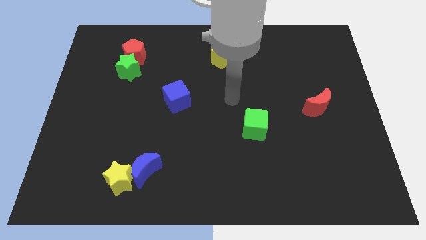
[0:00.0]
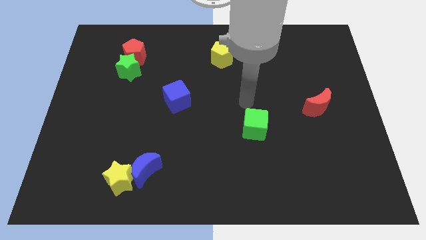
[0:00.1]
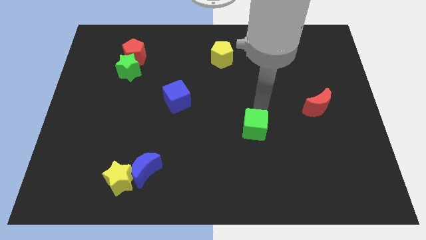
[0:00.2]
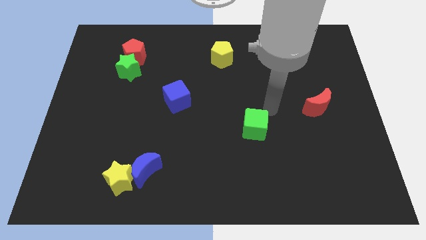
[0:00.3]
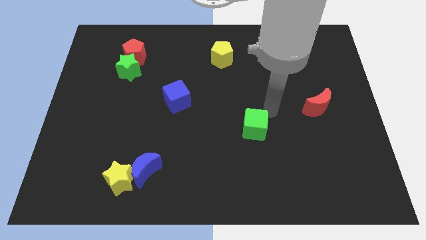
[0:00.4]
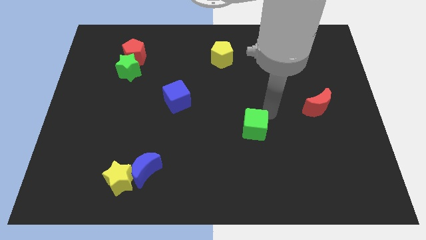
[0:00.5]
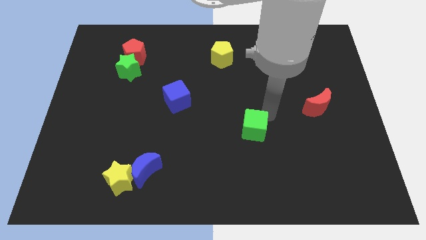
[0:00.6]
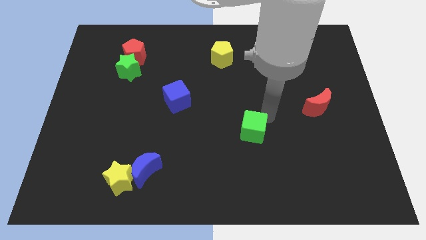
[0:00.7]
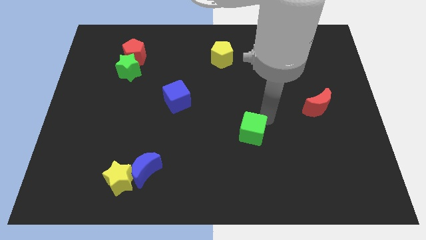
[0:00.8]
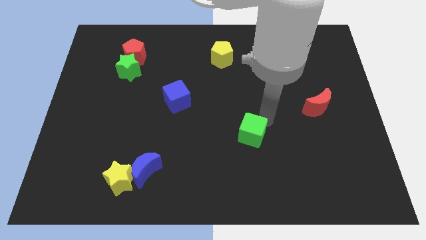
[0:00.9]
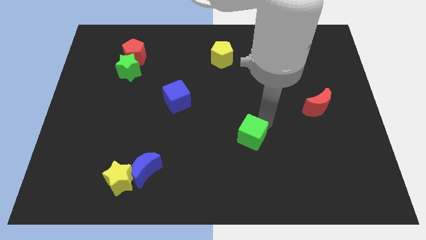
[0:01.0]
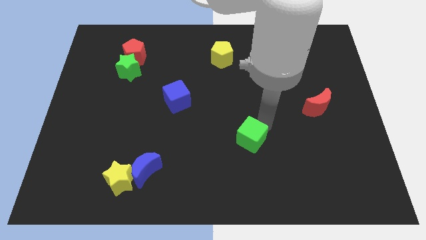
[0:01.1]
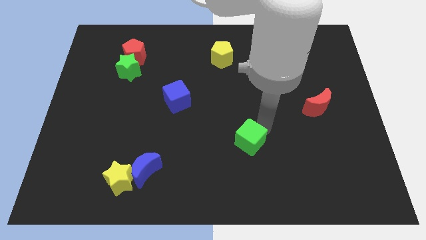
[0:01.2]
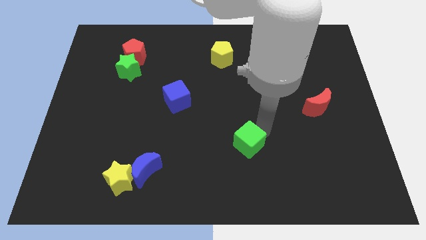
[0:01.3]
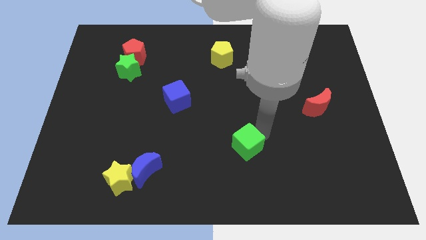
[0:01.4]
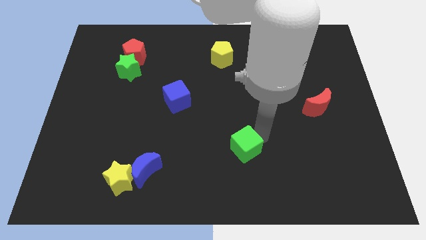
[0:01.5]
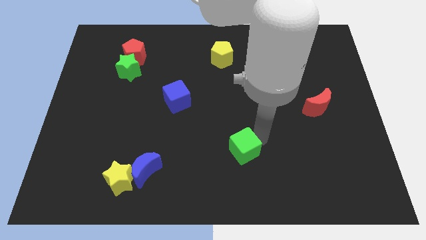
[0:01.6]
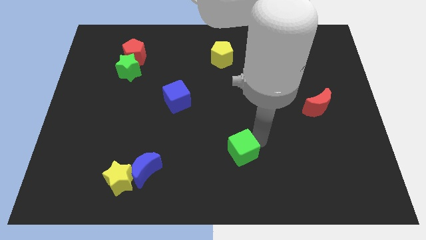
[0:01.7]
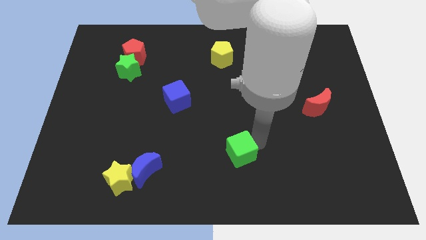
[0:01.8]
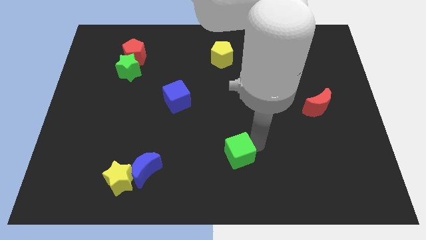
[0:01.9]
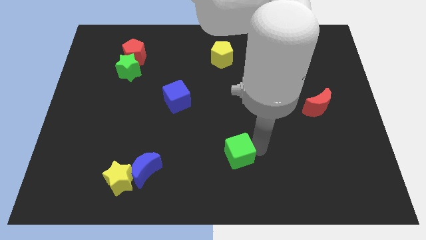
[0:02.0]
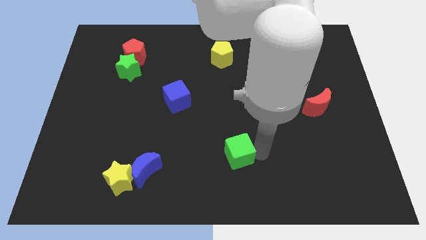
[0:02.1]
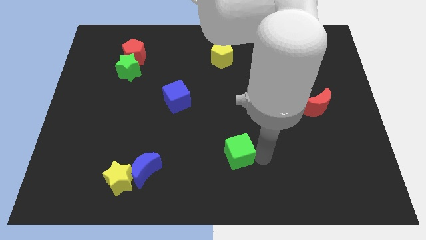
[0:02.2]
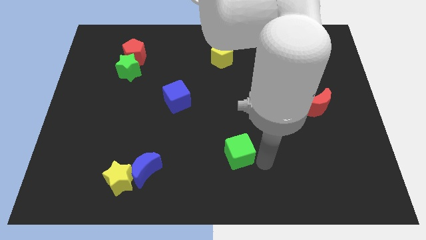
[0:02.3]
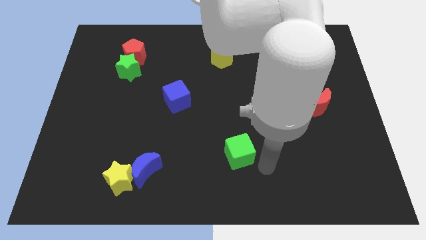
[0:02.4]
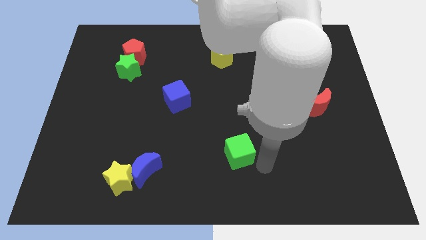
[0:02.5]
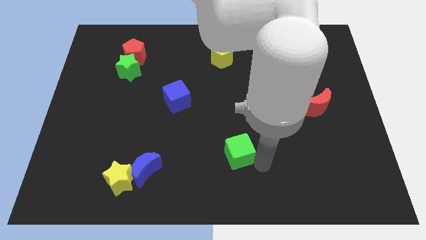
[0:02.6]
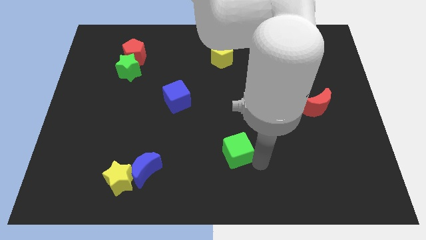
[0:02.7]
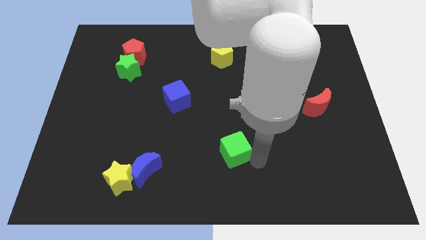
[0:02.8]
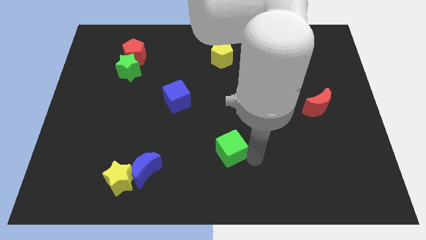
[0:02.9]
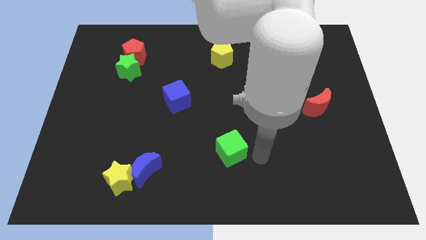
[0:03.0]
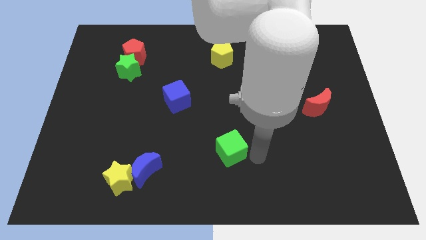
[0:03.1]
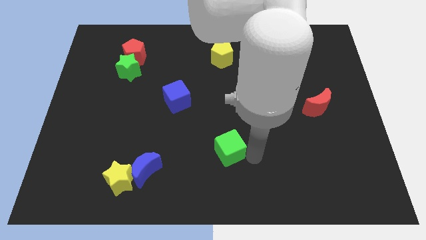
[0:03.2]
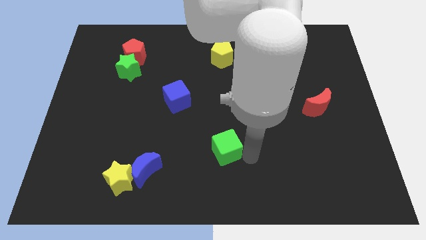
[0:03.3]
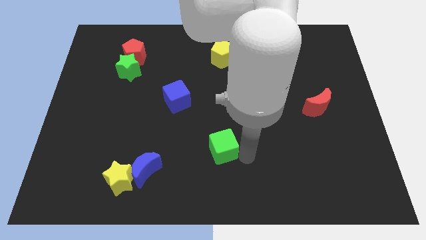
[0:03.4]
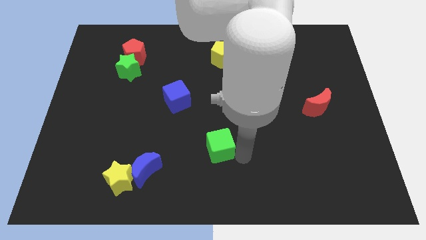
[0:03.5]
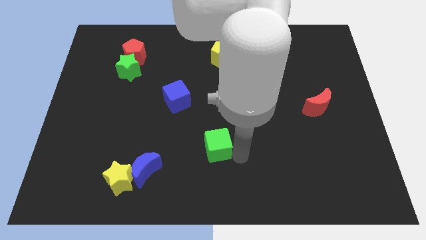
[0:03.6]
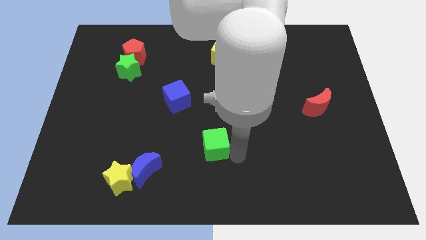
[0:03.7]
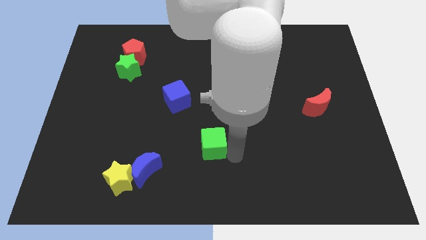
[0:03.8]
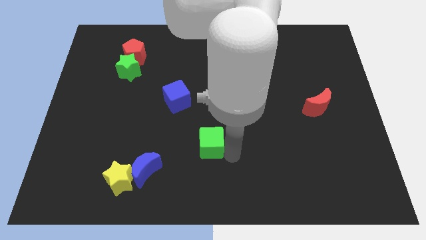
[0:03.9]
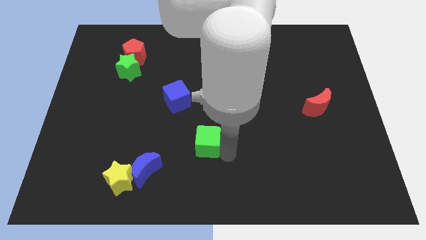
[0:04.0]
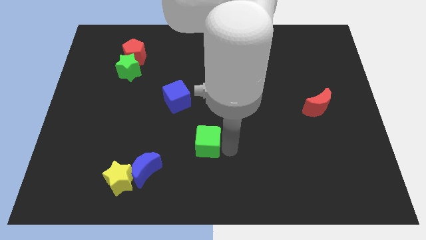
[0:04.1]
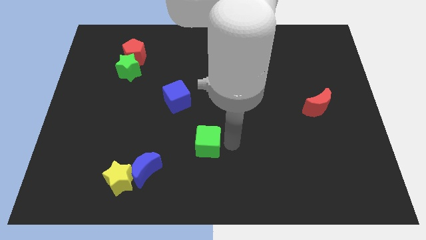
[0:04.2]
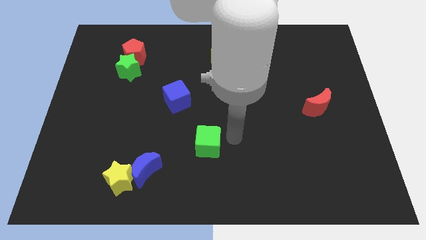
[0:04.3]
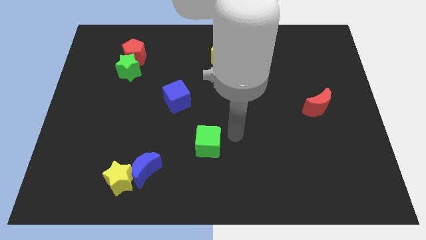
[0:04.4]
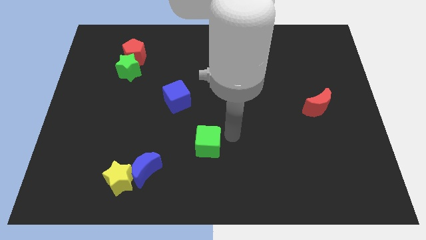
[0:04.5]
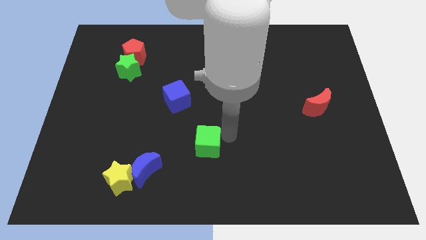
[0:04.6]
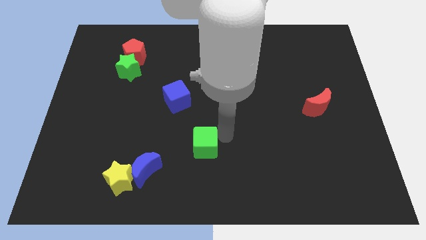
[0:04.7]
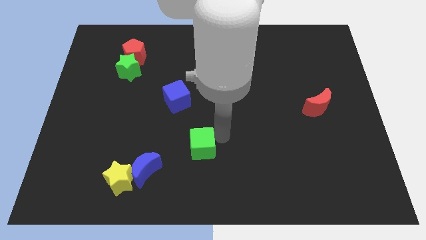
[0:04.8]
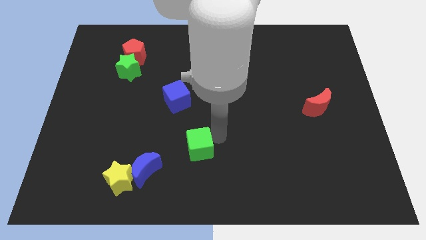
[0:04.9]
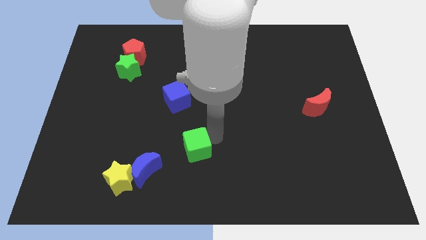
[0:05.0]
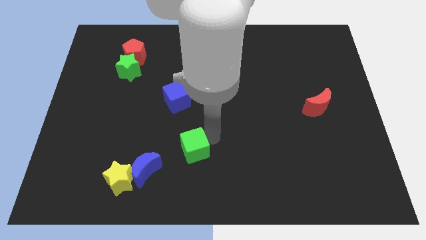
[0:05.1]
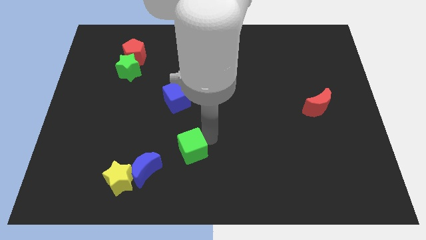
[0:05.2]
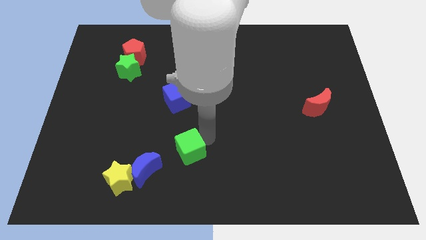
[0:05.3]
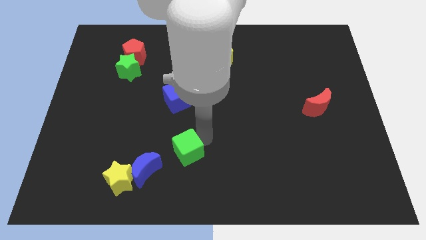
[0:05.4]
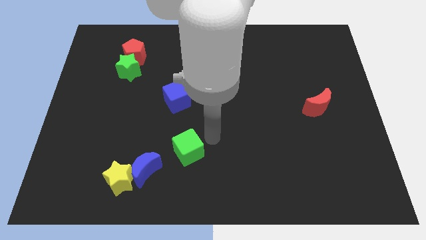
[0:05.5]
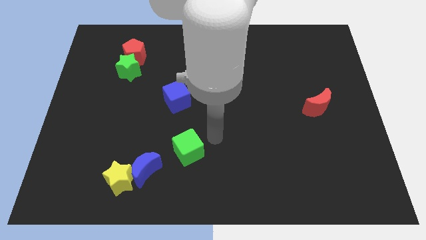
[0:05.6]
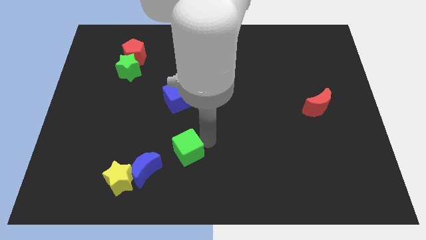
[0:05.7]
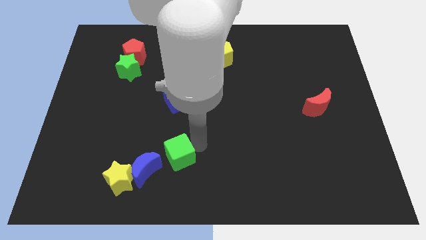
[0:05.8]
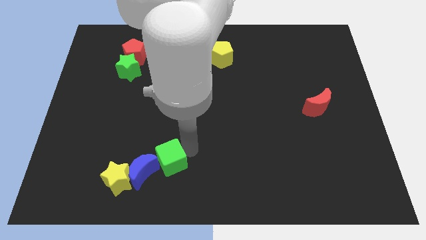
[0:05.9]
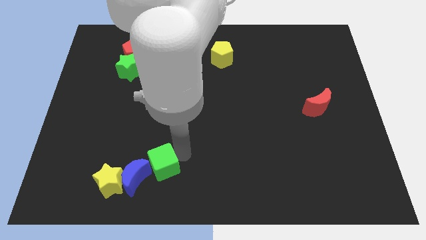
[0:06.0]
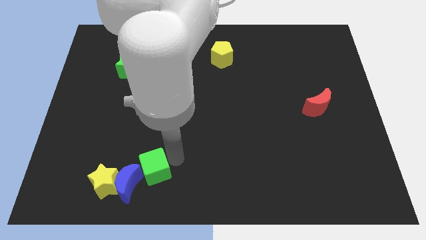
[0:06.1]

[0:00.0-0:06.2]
push the green cube close to the blue moon

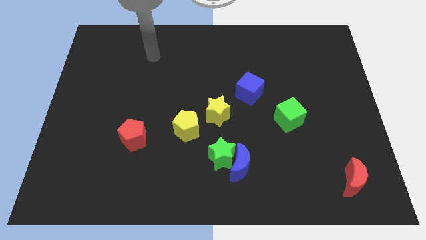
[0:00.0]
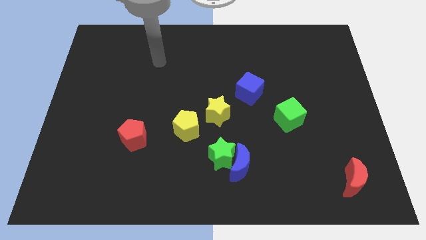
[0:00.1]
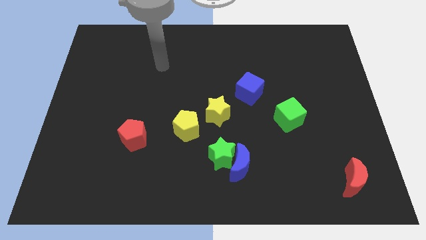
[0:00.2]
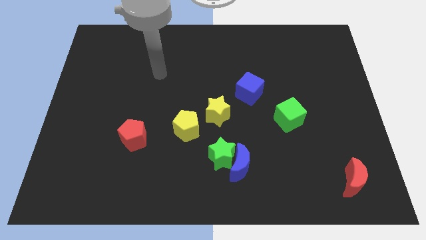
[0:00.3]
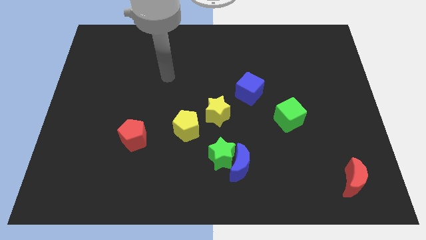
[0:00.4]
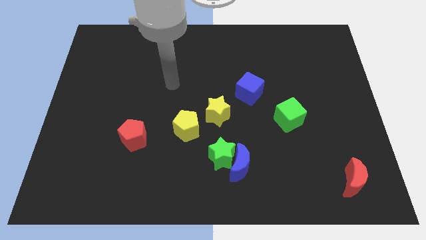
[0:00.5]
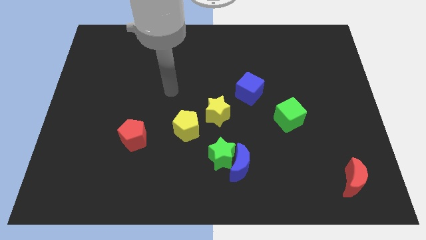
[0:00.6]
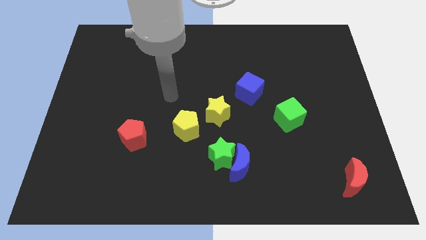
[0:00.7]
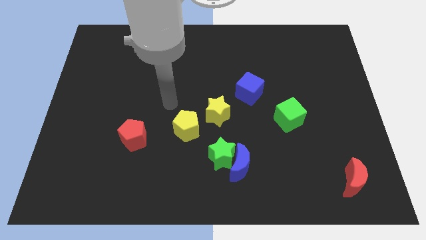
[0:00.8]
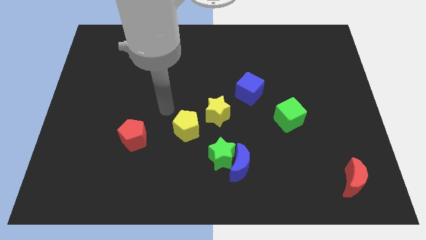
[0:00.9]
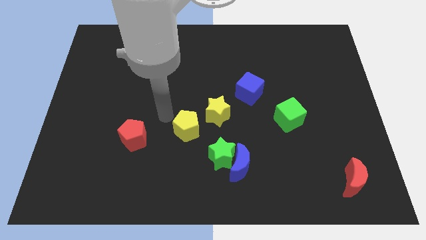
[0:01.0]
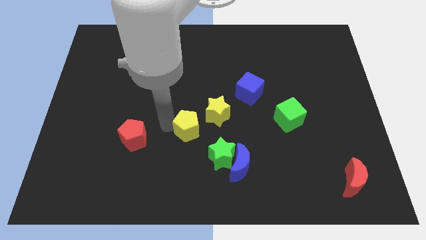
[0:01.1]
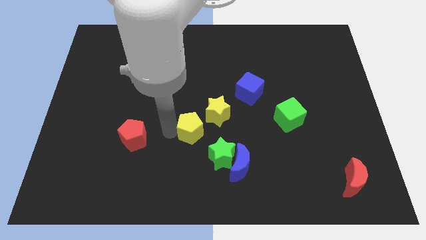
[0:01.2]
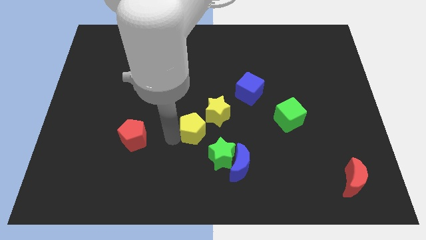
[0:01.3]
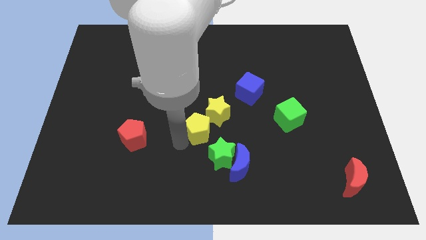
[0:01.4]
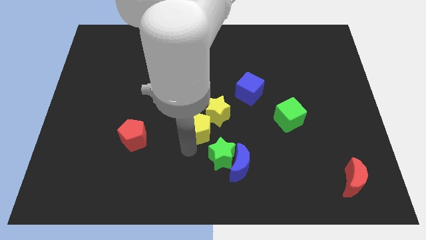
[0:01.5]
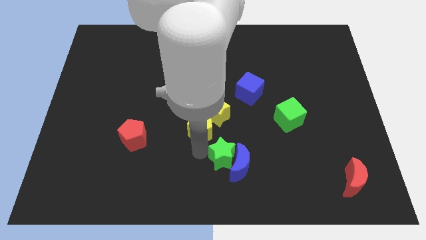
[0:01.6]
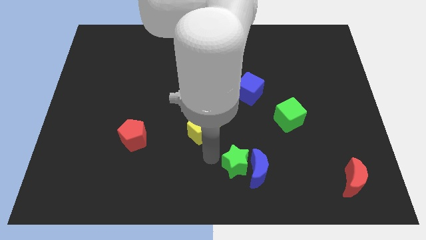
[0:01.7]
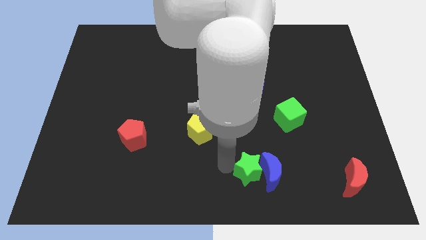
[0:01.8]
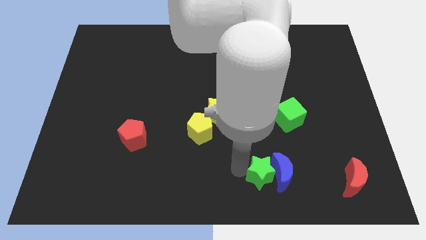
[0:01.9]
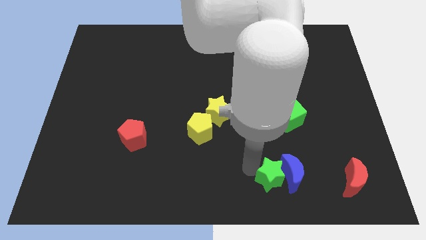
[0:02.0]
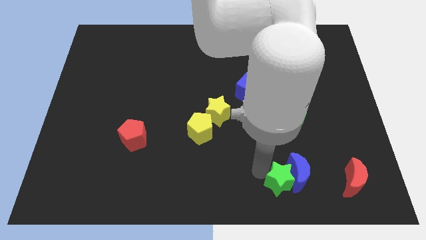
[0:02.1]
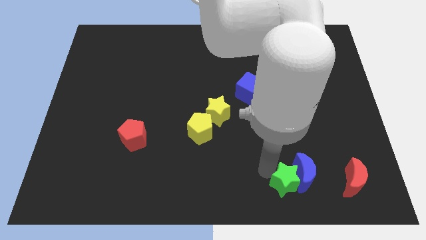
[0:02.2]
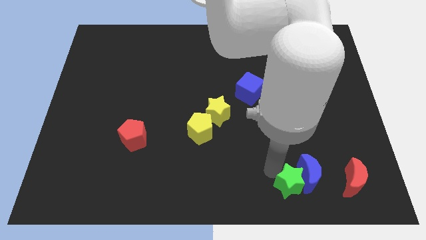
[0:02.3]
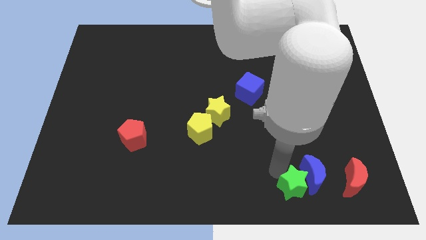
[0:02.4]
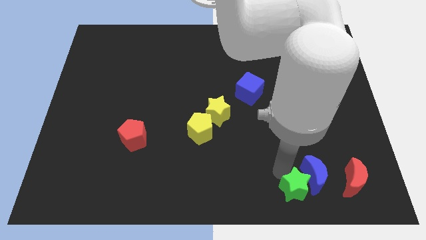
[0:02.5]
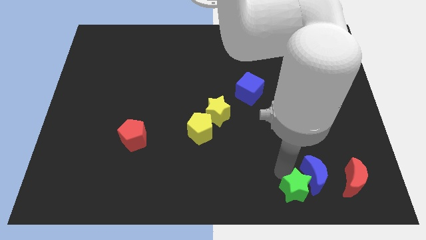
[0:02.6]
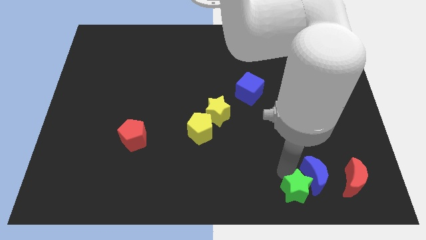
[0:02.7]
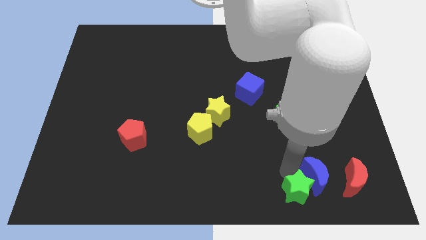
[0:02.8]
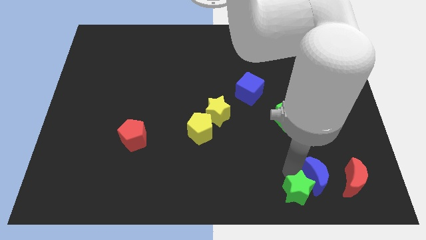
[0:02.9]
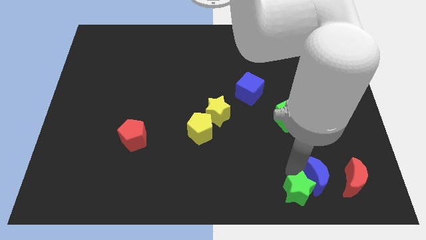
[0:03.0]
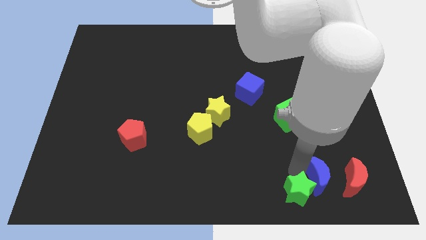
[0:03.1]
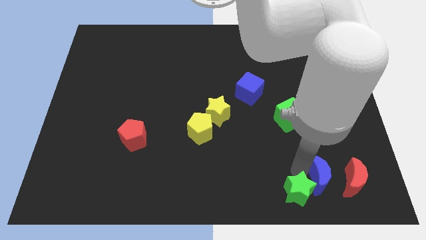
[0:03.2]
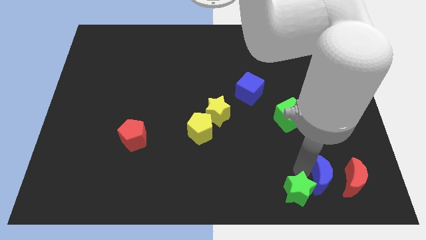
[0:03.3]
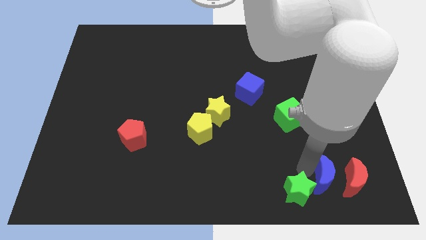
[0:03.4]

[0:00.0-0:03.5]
push the blue moon towards the red moon
